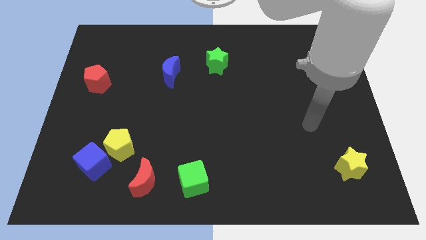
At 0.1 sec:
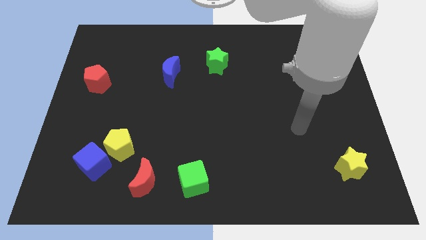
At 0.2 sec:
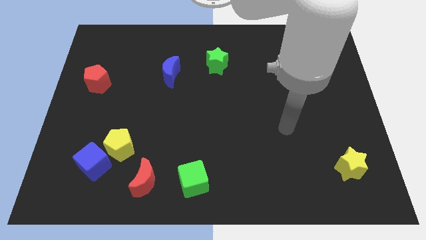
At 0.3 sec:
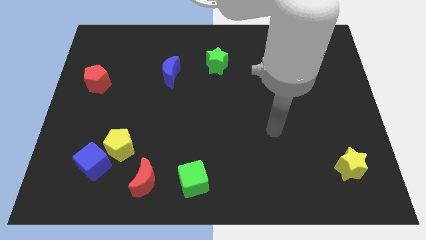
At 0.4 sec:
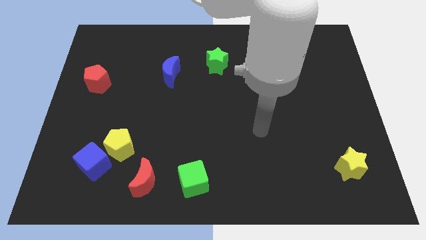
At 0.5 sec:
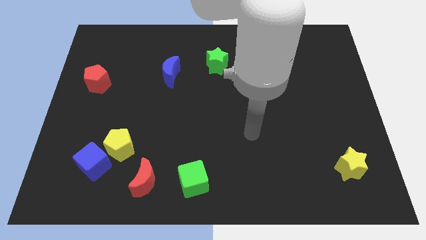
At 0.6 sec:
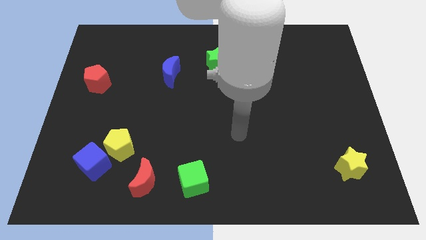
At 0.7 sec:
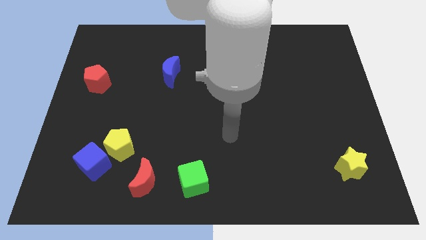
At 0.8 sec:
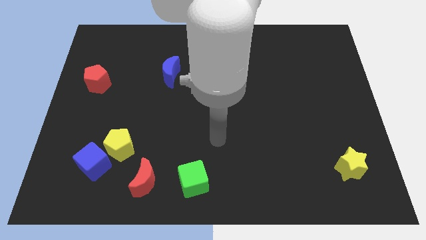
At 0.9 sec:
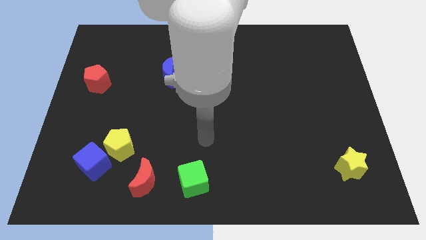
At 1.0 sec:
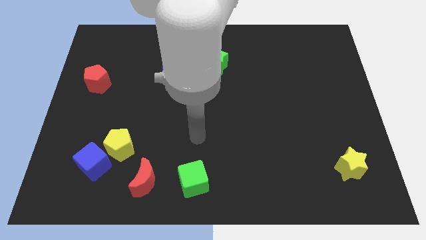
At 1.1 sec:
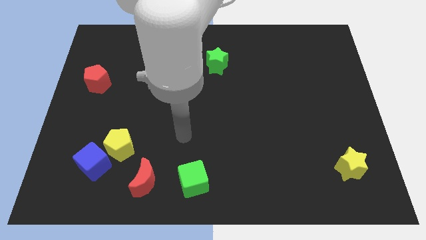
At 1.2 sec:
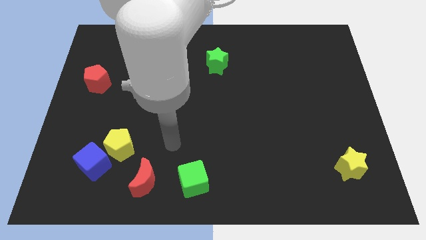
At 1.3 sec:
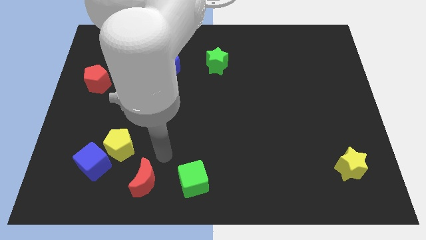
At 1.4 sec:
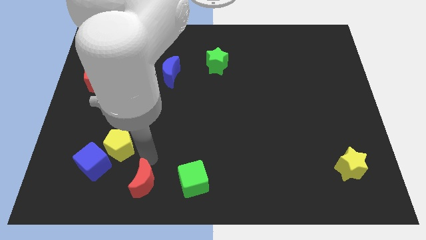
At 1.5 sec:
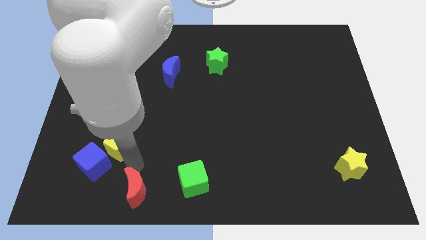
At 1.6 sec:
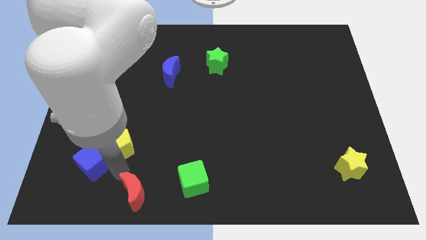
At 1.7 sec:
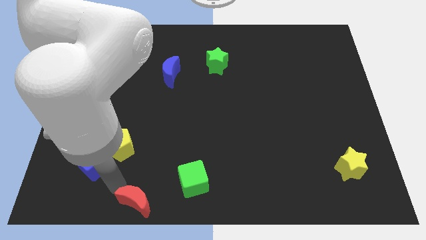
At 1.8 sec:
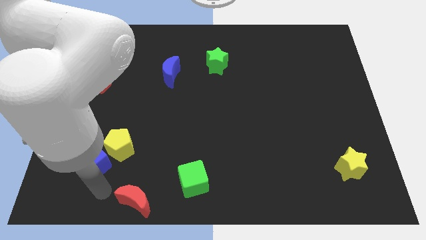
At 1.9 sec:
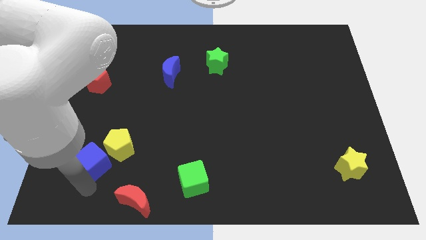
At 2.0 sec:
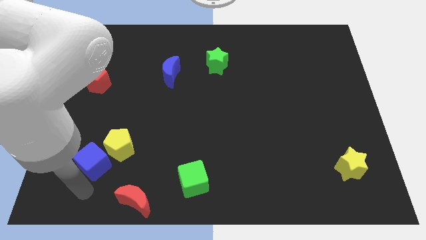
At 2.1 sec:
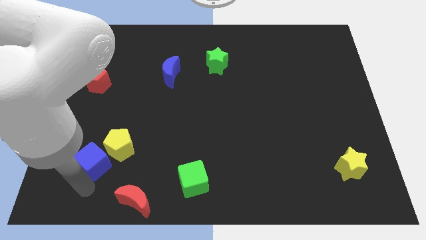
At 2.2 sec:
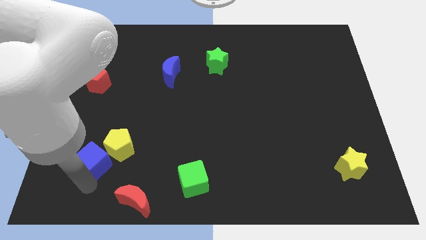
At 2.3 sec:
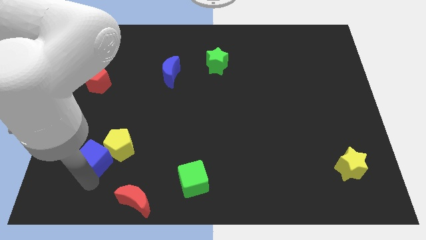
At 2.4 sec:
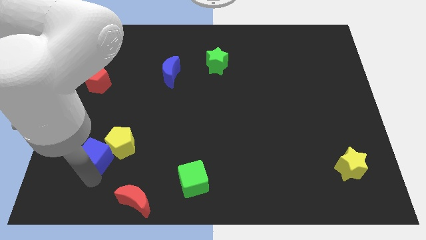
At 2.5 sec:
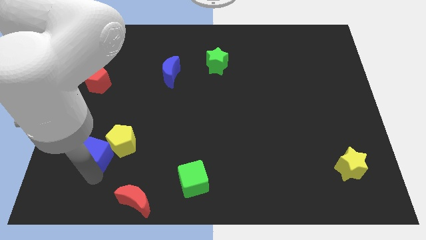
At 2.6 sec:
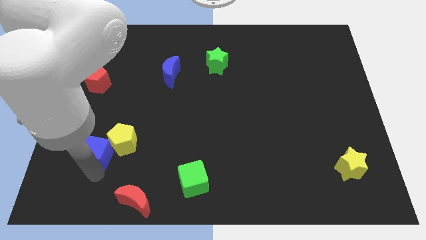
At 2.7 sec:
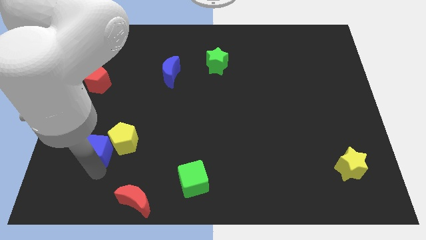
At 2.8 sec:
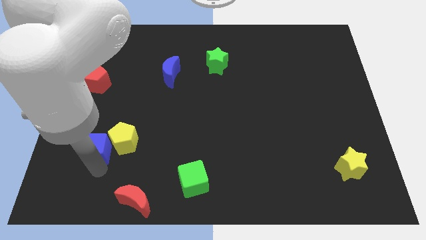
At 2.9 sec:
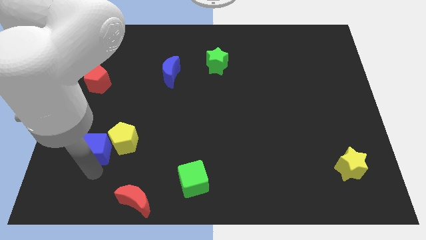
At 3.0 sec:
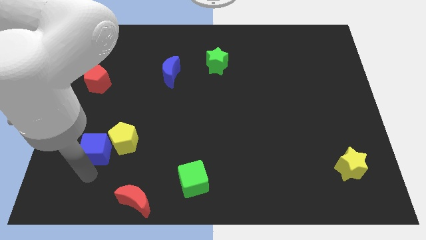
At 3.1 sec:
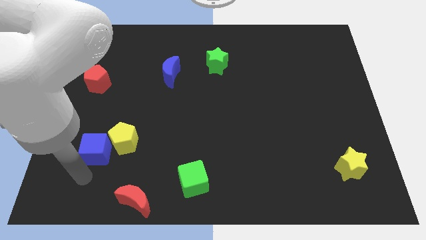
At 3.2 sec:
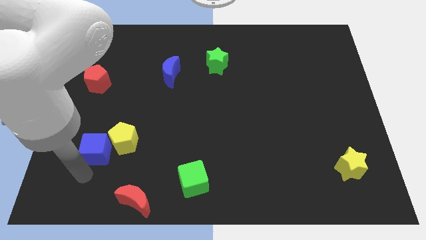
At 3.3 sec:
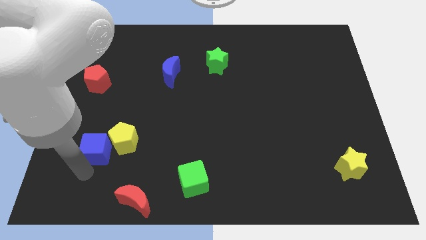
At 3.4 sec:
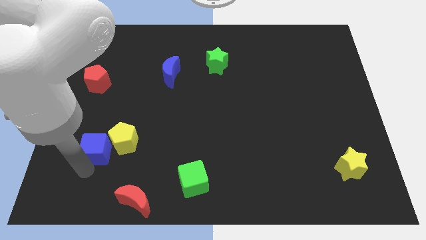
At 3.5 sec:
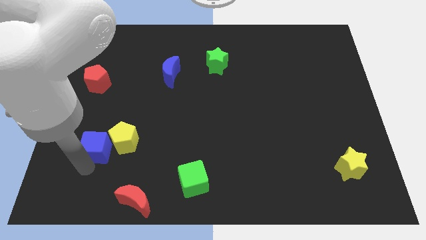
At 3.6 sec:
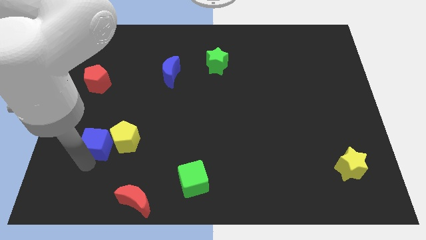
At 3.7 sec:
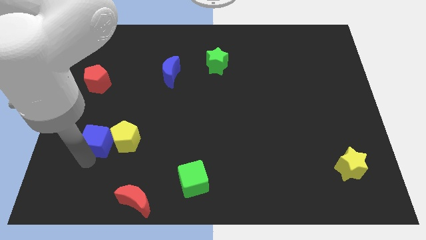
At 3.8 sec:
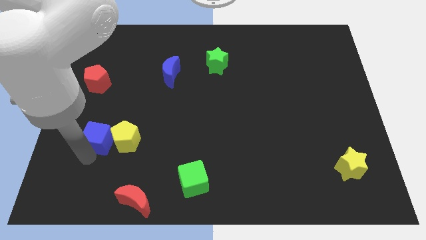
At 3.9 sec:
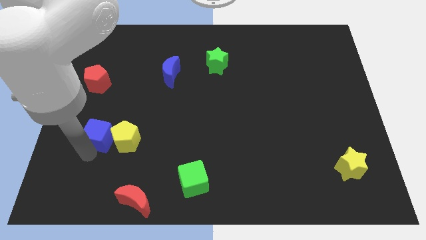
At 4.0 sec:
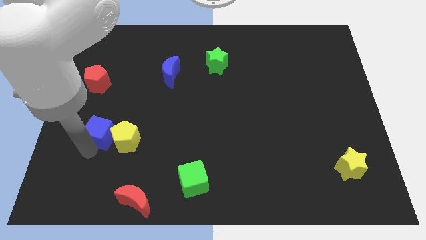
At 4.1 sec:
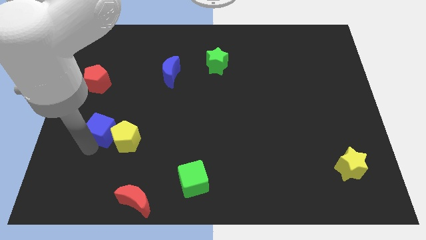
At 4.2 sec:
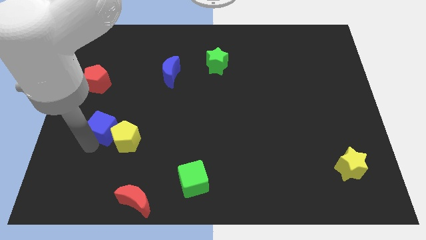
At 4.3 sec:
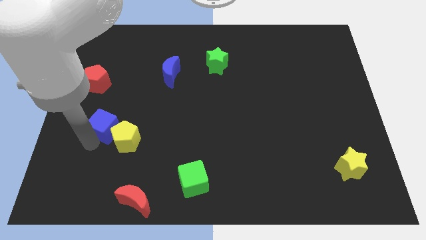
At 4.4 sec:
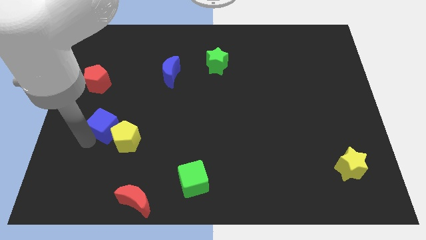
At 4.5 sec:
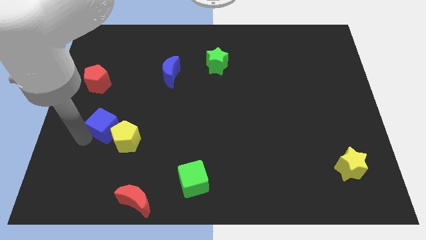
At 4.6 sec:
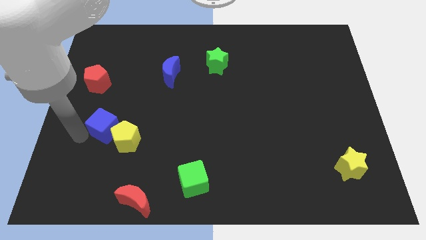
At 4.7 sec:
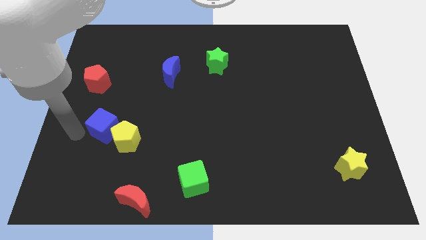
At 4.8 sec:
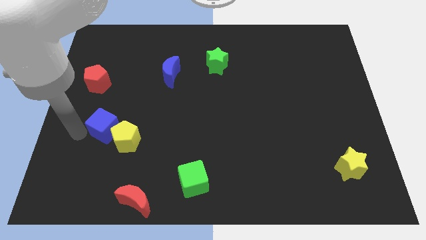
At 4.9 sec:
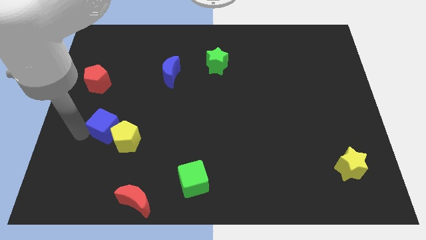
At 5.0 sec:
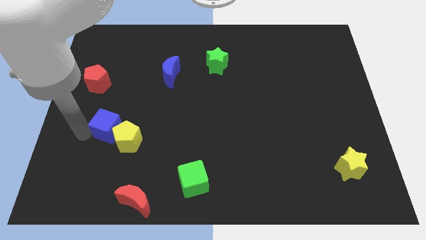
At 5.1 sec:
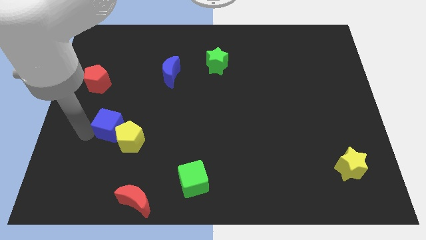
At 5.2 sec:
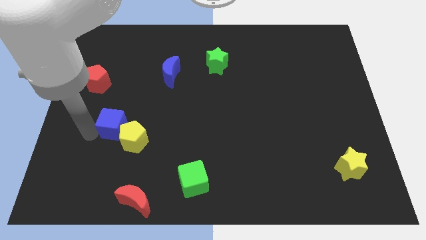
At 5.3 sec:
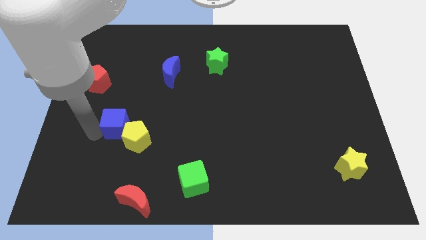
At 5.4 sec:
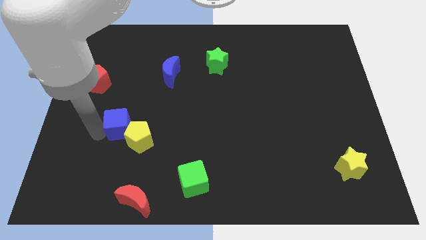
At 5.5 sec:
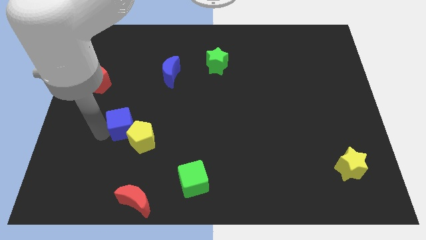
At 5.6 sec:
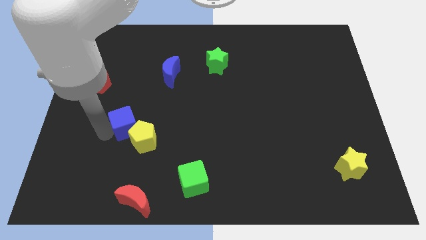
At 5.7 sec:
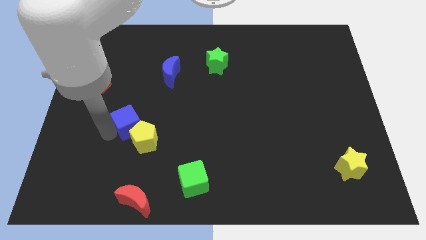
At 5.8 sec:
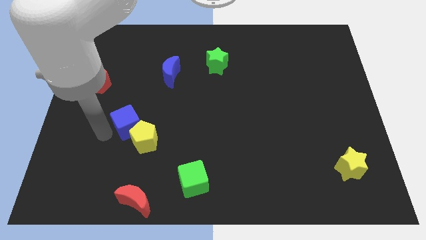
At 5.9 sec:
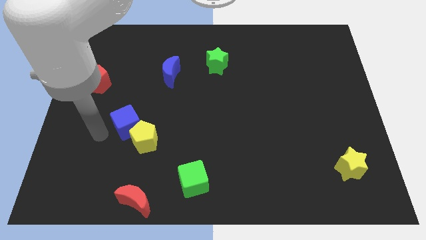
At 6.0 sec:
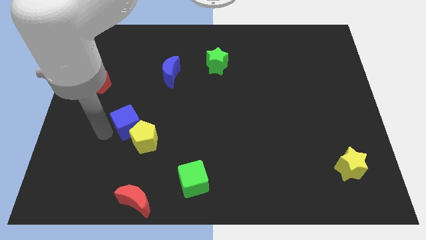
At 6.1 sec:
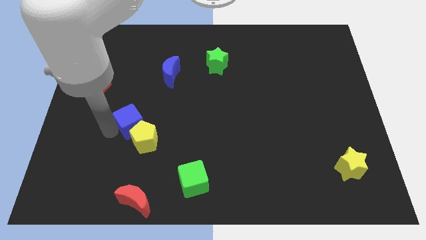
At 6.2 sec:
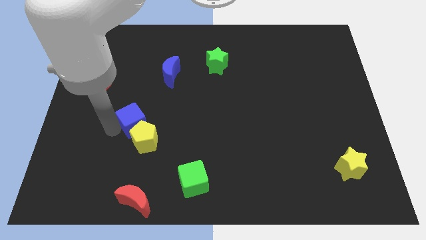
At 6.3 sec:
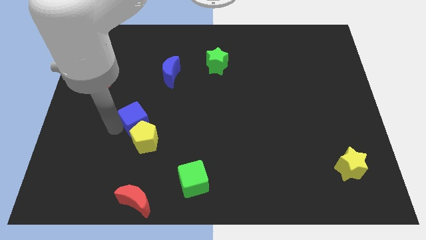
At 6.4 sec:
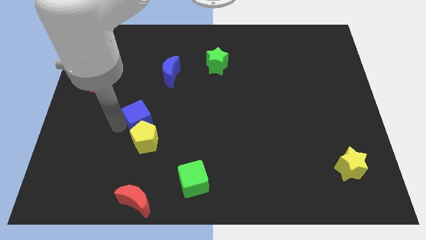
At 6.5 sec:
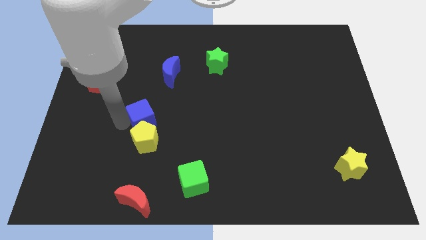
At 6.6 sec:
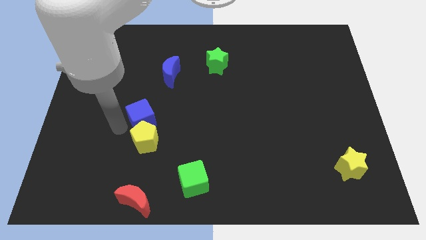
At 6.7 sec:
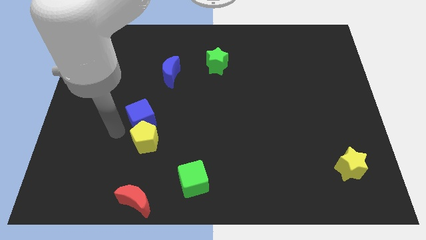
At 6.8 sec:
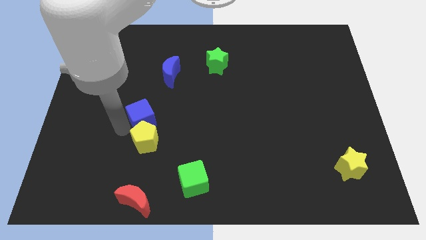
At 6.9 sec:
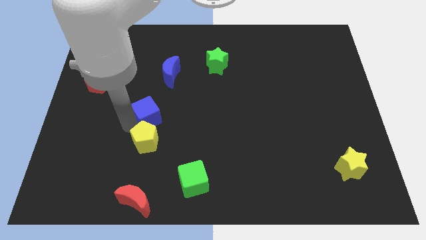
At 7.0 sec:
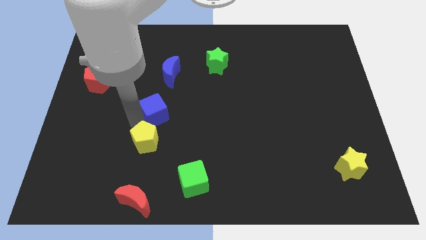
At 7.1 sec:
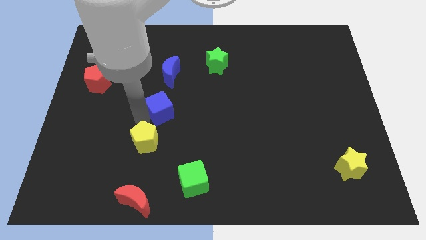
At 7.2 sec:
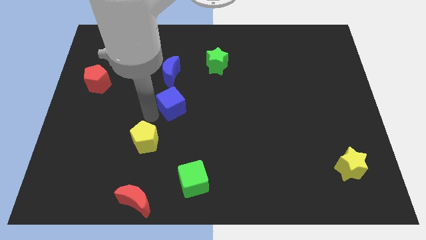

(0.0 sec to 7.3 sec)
push the blue cube upwards and to the right

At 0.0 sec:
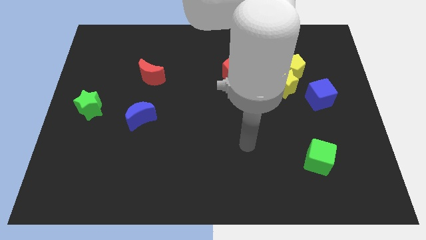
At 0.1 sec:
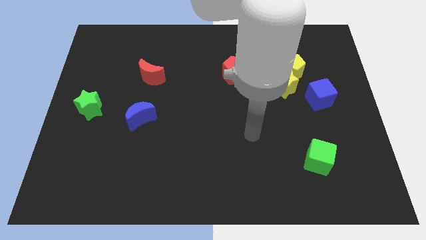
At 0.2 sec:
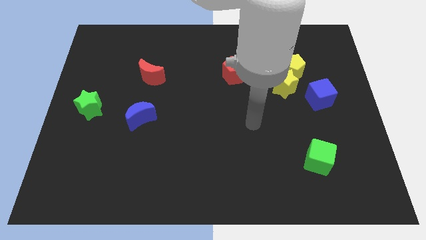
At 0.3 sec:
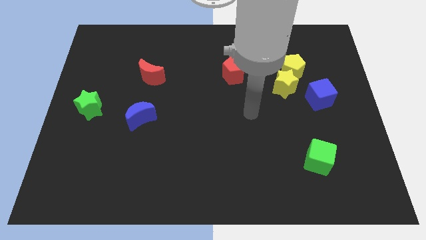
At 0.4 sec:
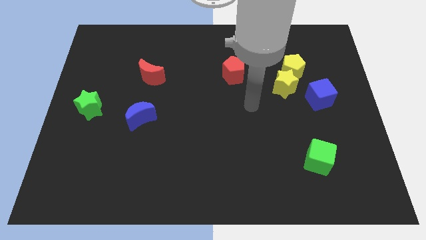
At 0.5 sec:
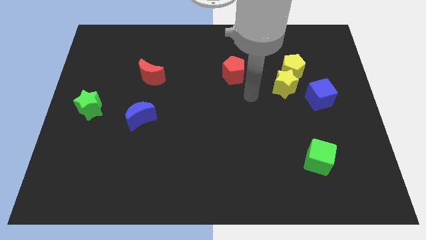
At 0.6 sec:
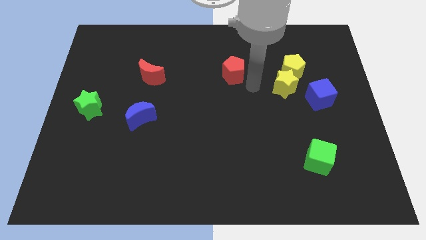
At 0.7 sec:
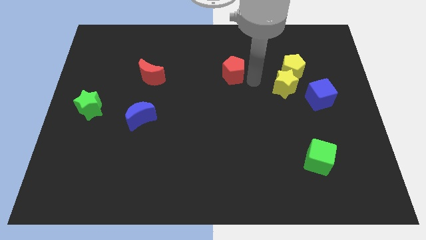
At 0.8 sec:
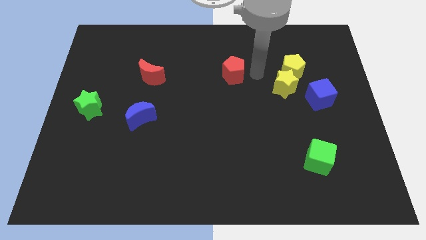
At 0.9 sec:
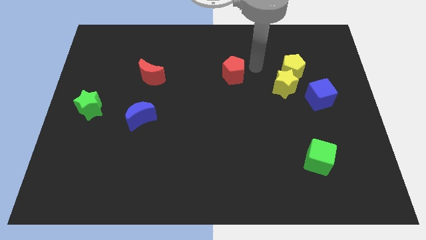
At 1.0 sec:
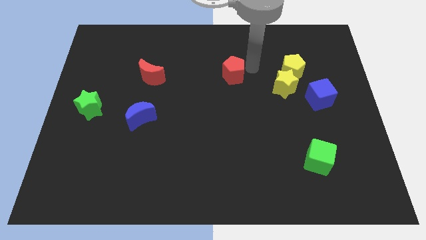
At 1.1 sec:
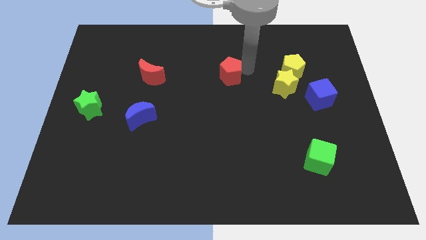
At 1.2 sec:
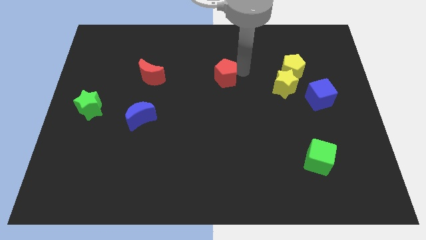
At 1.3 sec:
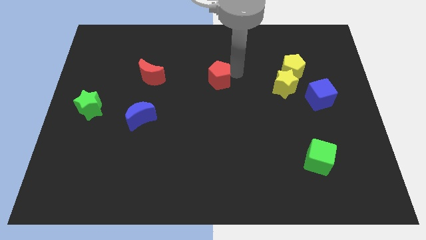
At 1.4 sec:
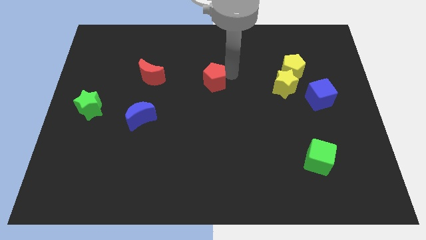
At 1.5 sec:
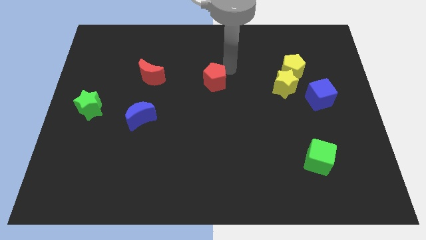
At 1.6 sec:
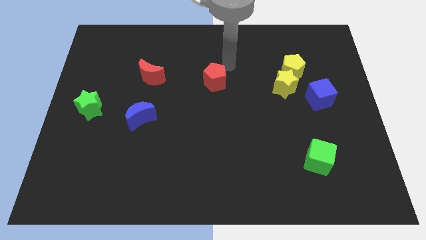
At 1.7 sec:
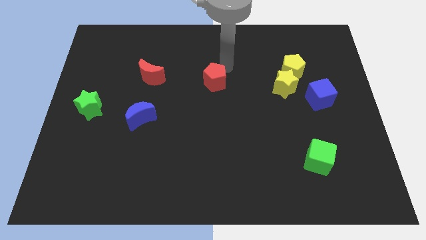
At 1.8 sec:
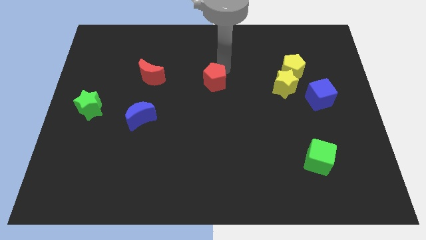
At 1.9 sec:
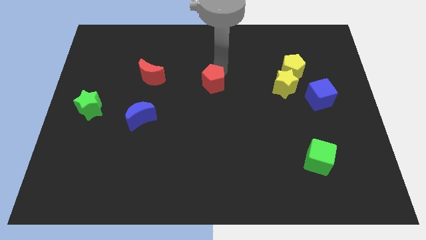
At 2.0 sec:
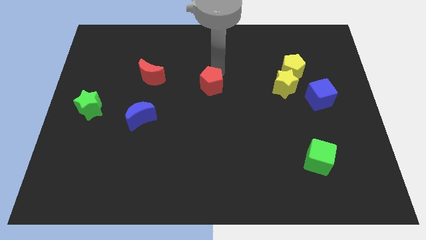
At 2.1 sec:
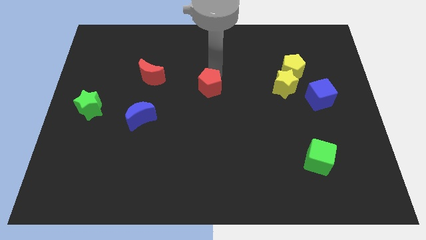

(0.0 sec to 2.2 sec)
slide the red pentagon down and then to the left a little
